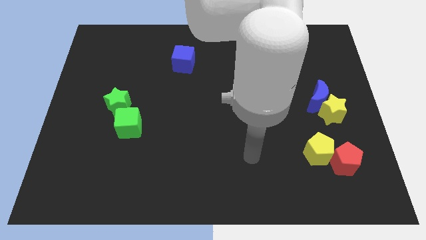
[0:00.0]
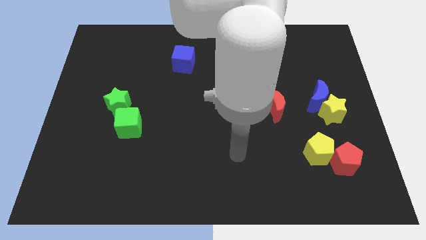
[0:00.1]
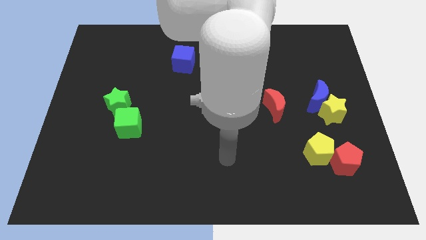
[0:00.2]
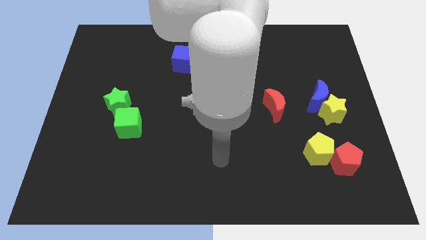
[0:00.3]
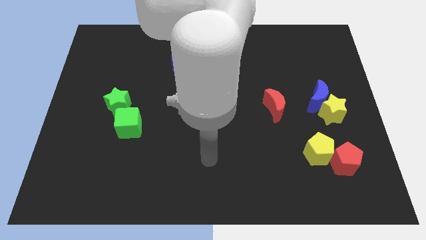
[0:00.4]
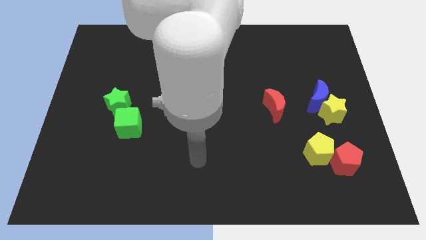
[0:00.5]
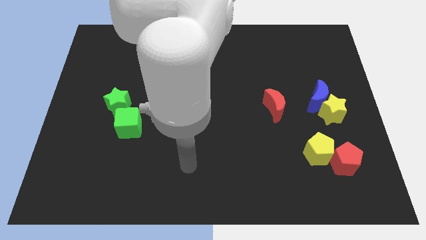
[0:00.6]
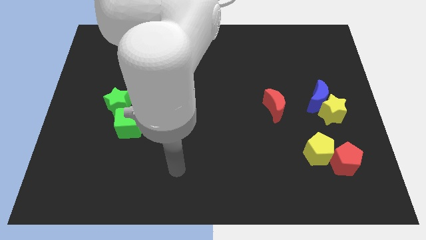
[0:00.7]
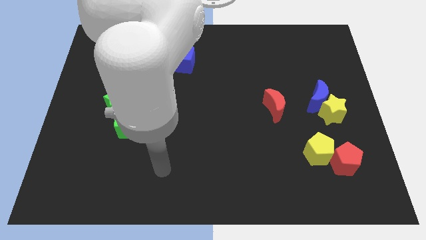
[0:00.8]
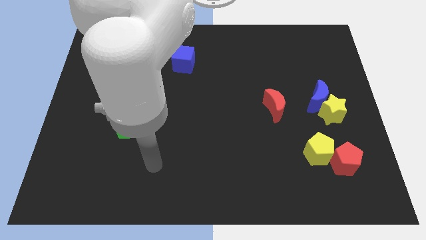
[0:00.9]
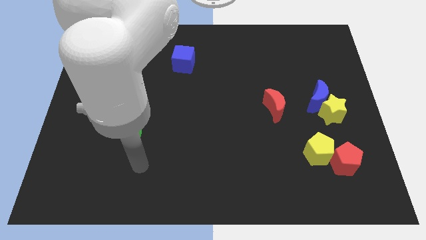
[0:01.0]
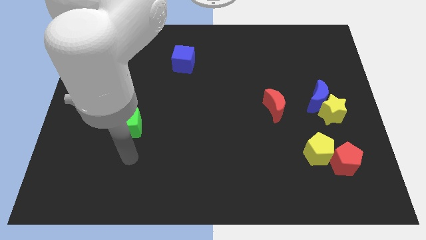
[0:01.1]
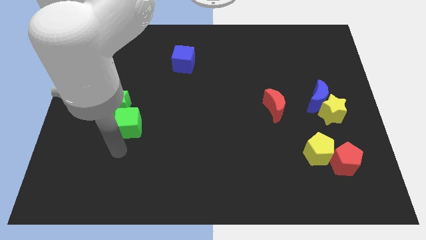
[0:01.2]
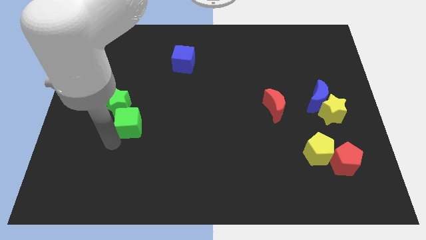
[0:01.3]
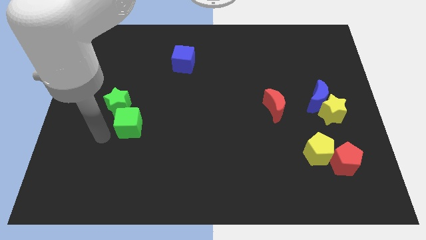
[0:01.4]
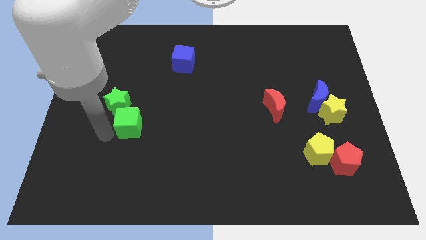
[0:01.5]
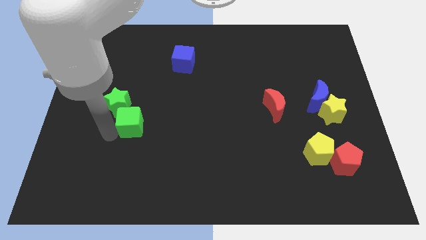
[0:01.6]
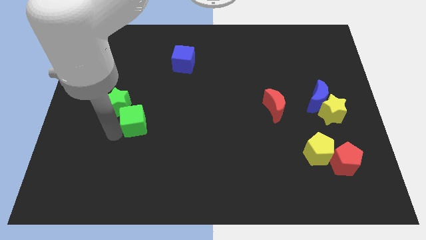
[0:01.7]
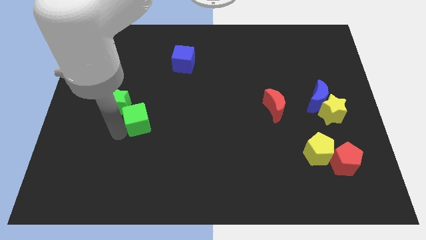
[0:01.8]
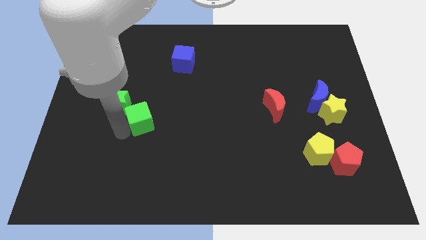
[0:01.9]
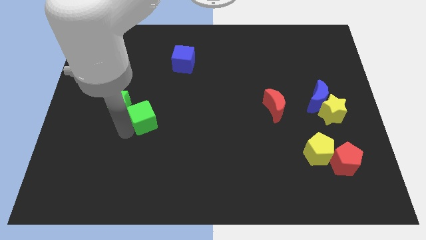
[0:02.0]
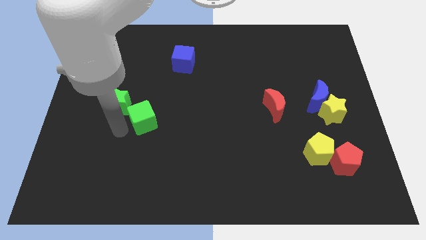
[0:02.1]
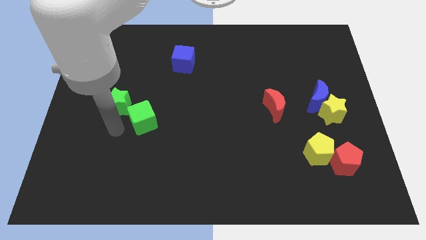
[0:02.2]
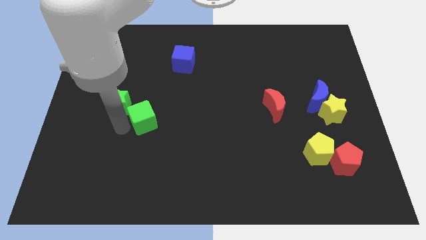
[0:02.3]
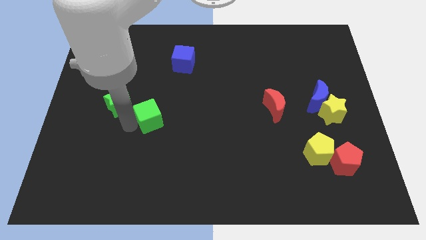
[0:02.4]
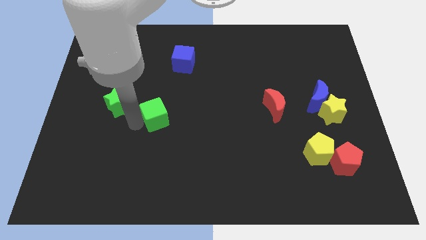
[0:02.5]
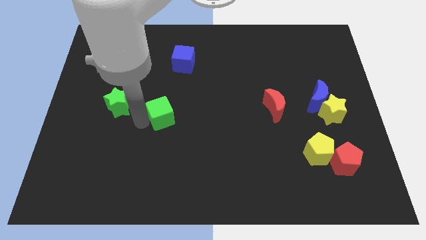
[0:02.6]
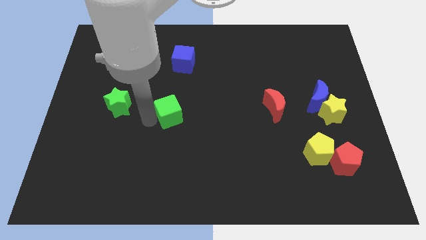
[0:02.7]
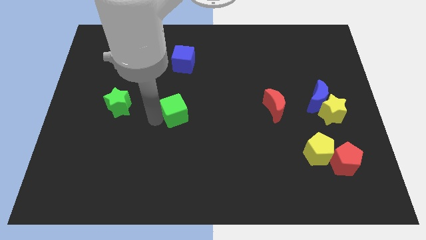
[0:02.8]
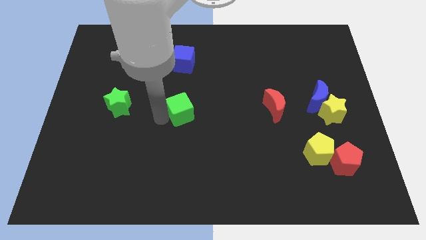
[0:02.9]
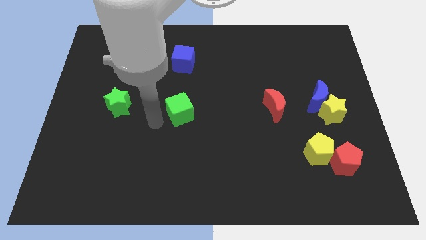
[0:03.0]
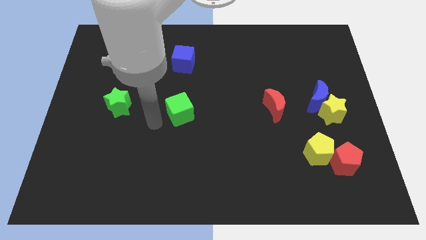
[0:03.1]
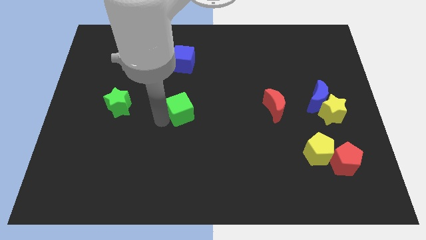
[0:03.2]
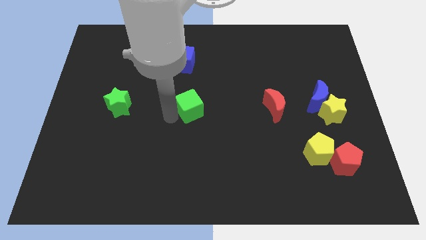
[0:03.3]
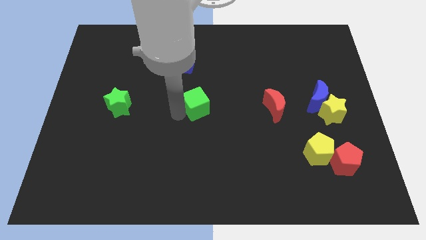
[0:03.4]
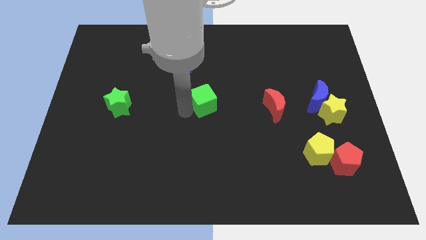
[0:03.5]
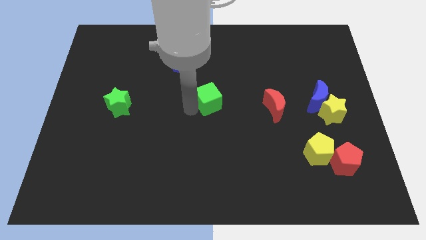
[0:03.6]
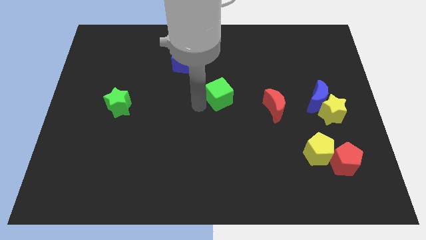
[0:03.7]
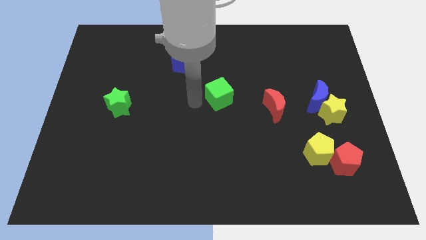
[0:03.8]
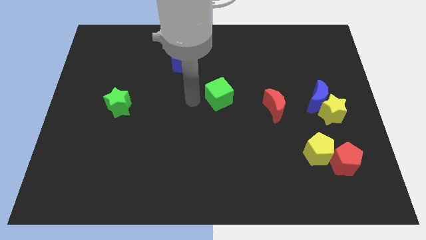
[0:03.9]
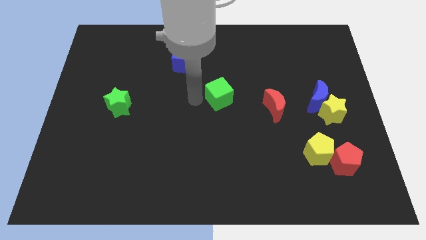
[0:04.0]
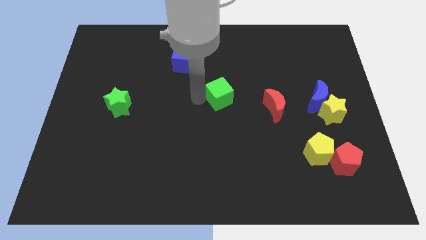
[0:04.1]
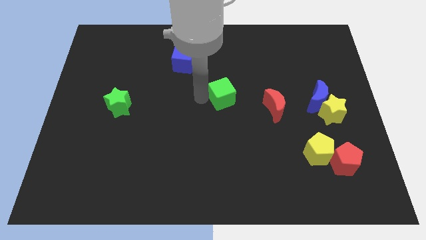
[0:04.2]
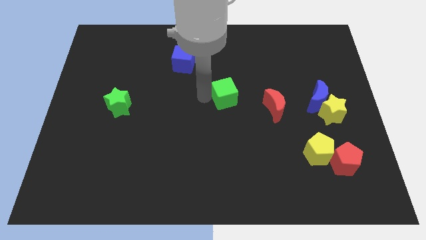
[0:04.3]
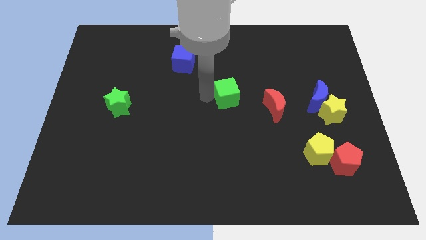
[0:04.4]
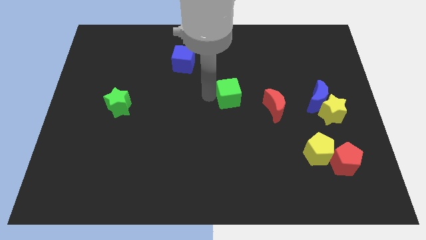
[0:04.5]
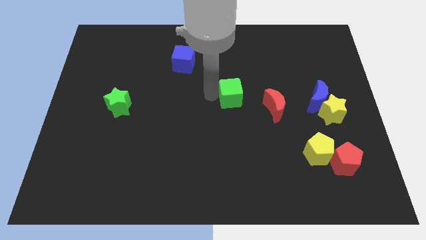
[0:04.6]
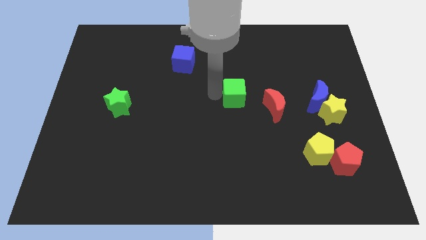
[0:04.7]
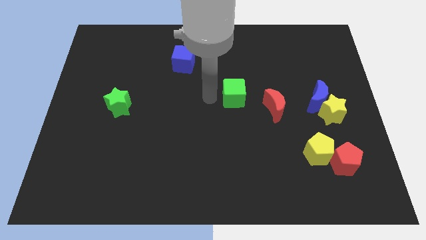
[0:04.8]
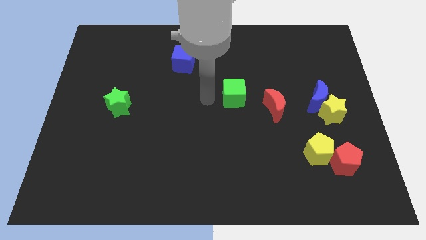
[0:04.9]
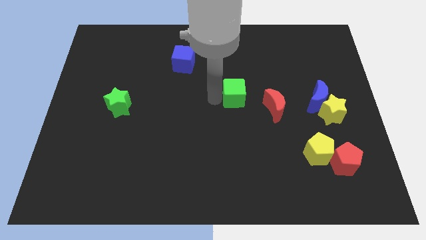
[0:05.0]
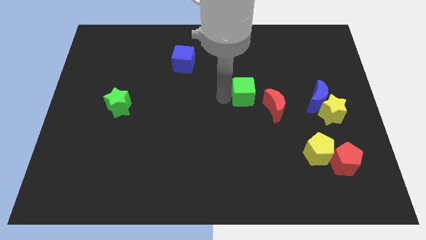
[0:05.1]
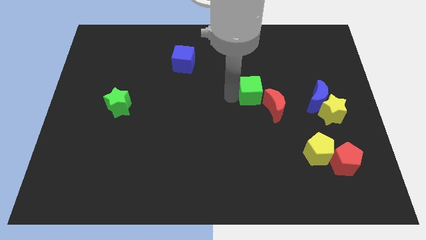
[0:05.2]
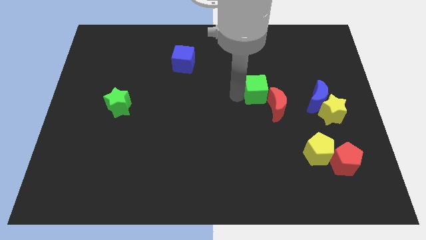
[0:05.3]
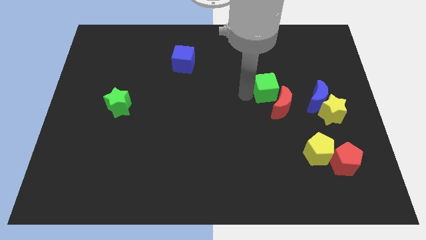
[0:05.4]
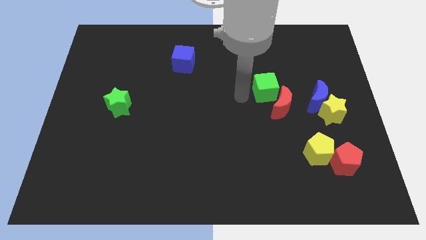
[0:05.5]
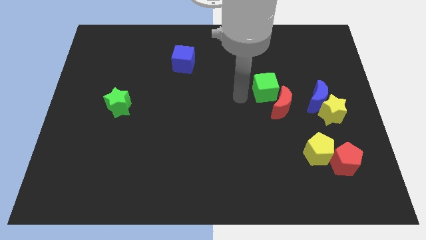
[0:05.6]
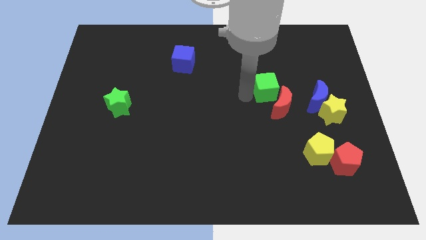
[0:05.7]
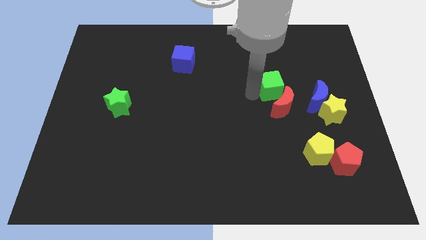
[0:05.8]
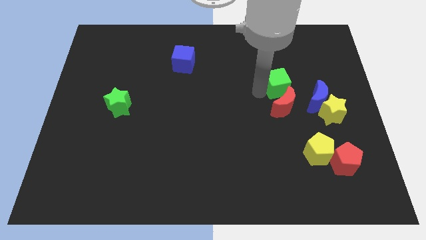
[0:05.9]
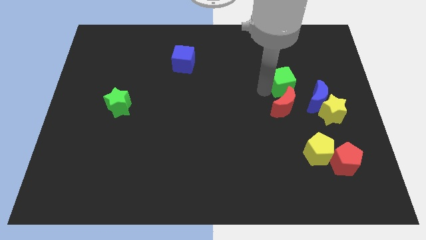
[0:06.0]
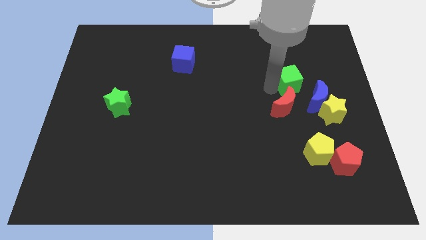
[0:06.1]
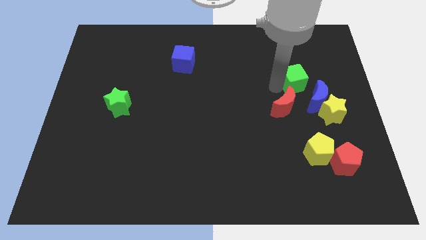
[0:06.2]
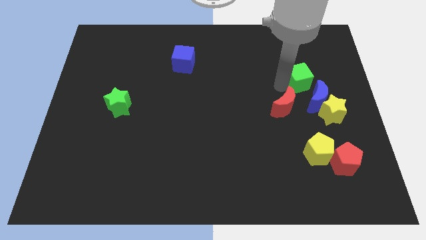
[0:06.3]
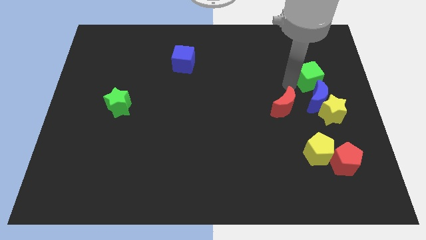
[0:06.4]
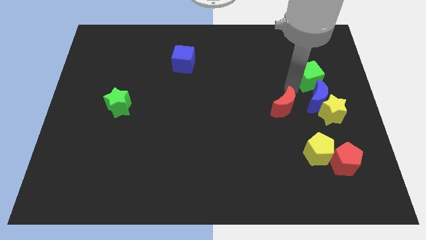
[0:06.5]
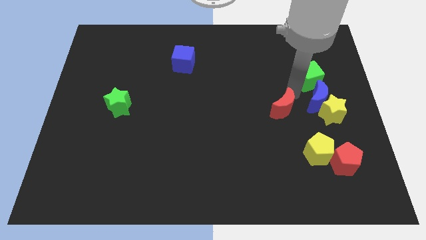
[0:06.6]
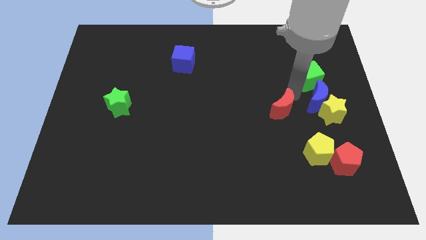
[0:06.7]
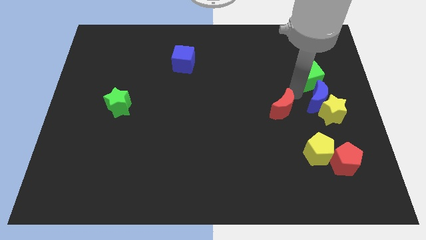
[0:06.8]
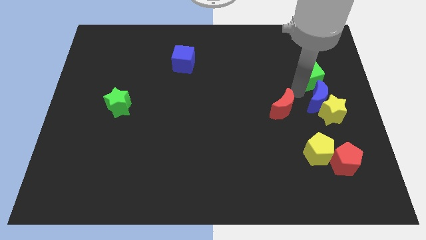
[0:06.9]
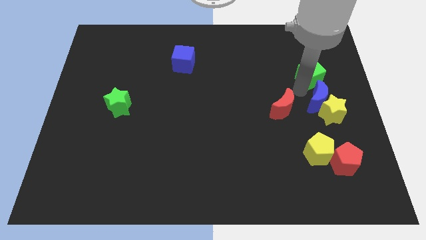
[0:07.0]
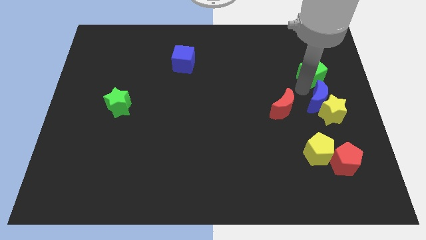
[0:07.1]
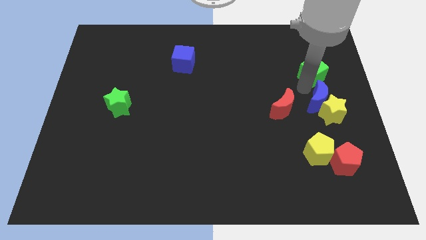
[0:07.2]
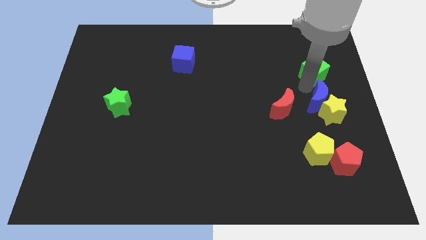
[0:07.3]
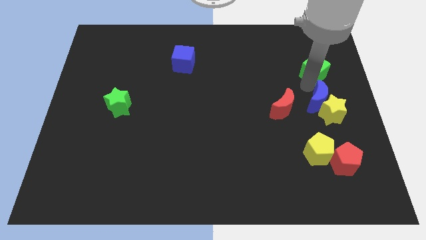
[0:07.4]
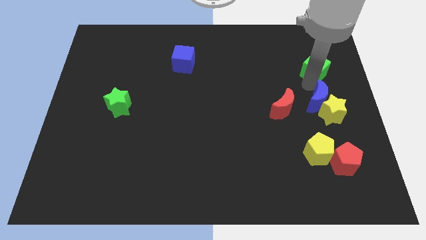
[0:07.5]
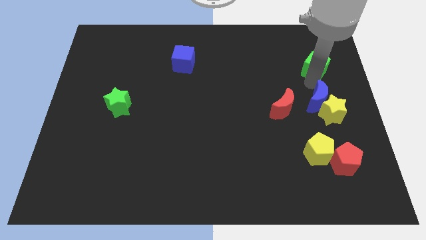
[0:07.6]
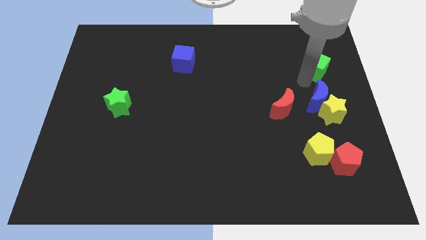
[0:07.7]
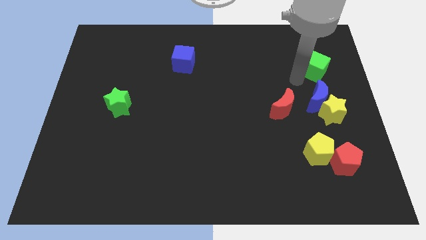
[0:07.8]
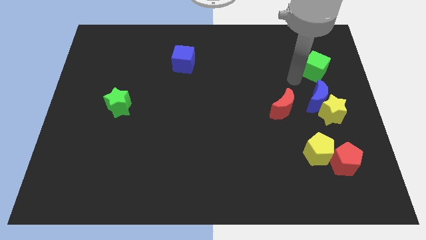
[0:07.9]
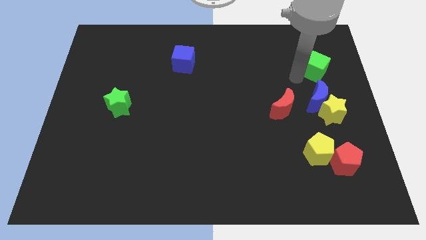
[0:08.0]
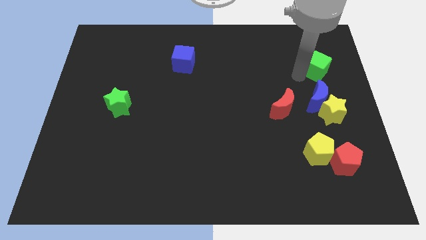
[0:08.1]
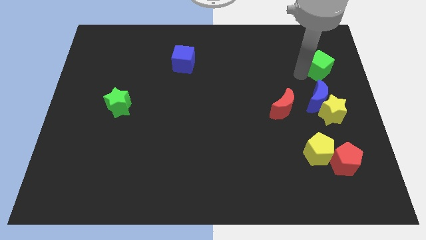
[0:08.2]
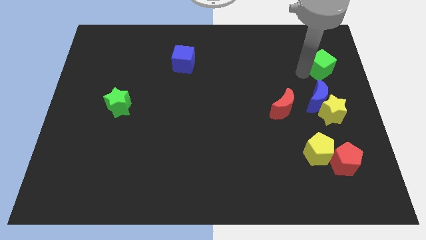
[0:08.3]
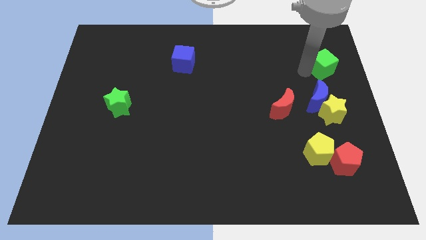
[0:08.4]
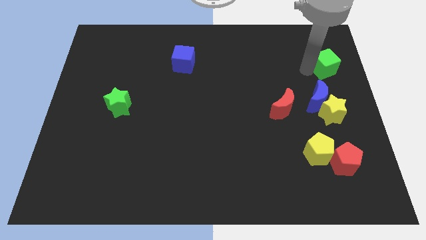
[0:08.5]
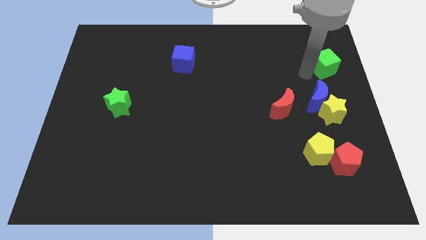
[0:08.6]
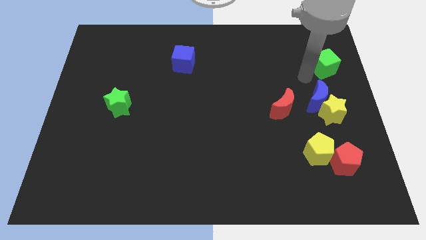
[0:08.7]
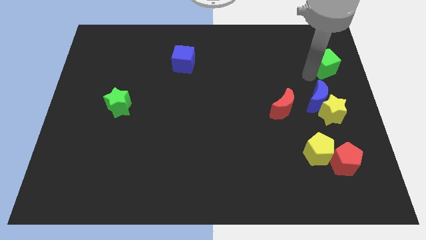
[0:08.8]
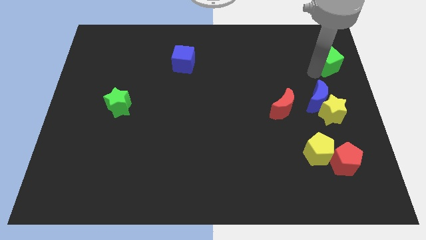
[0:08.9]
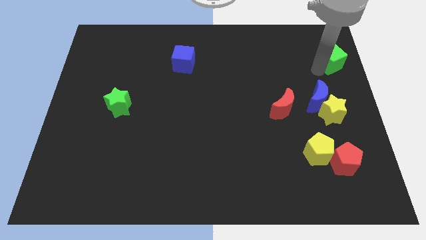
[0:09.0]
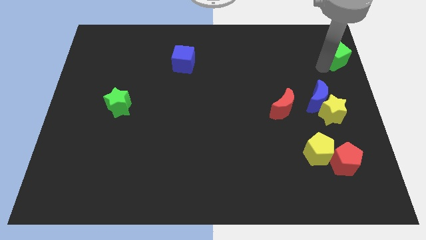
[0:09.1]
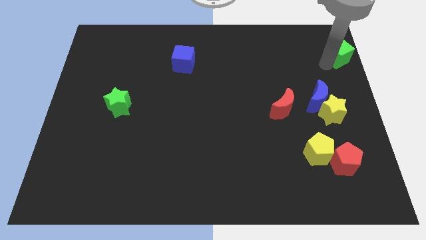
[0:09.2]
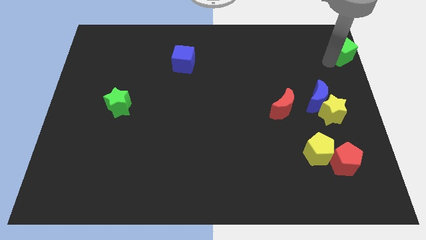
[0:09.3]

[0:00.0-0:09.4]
move the green cube to the top right
